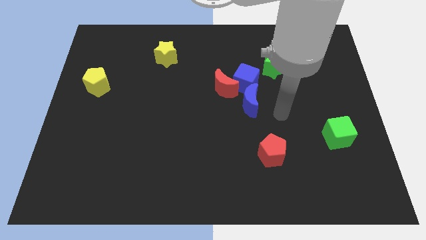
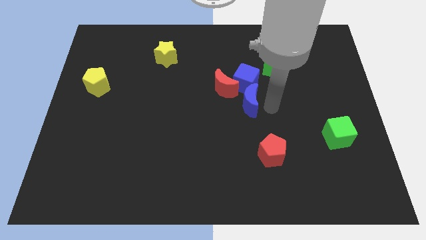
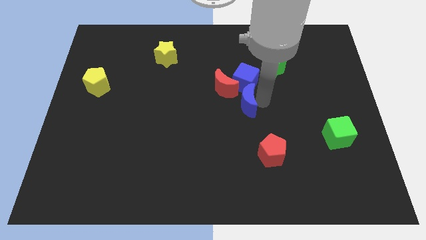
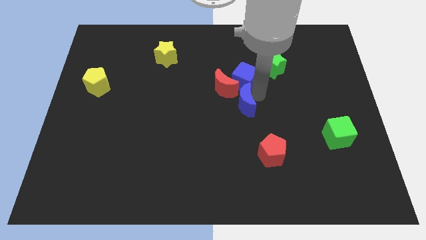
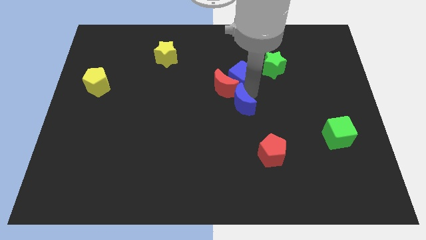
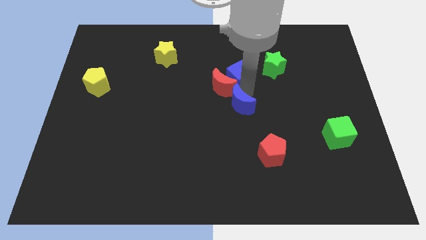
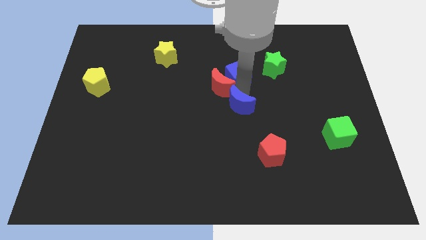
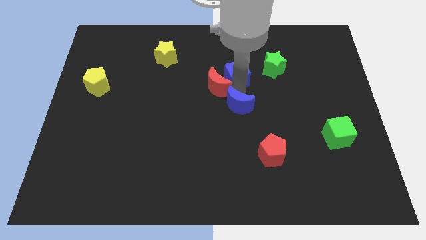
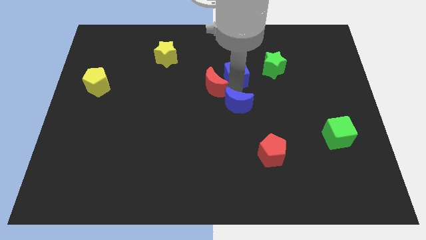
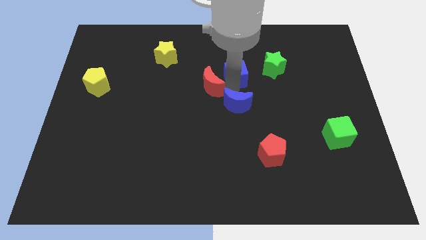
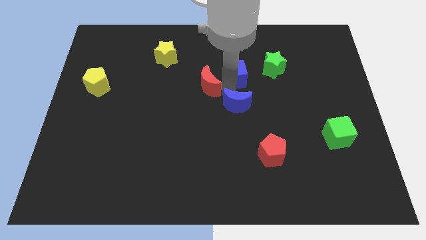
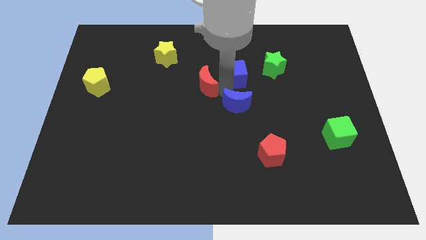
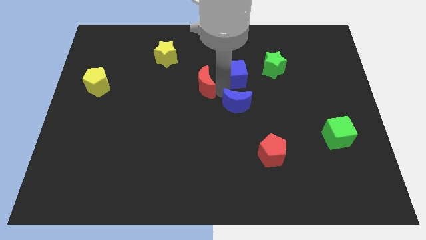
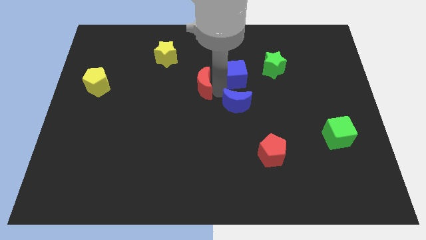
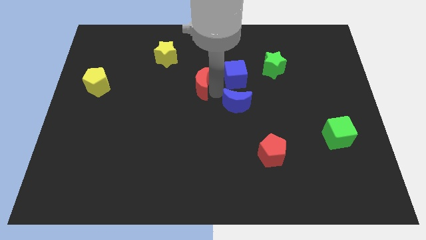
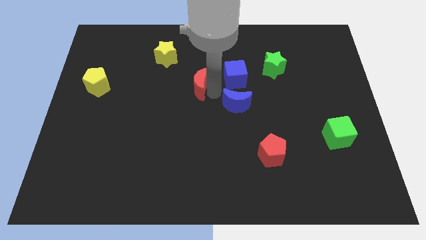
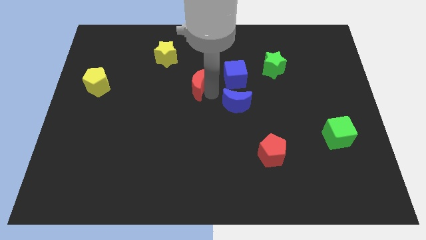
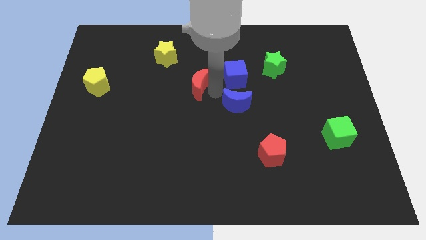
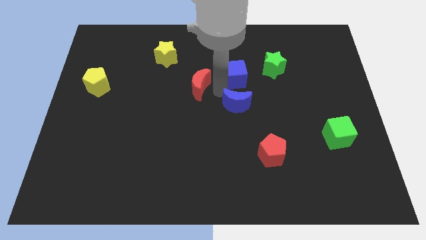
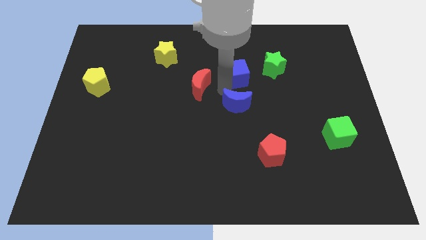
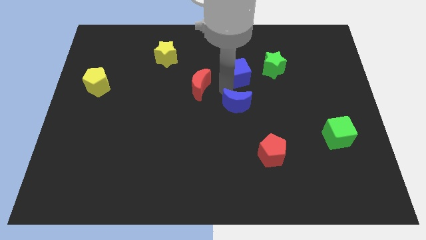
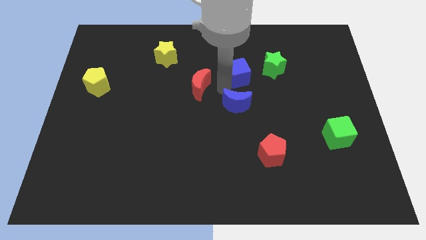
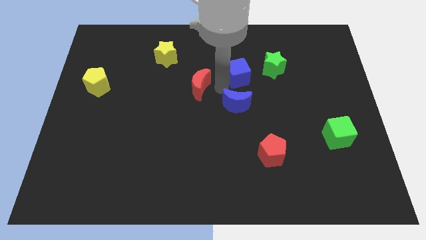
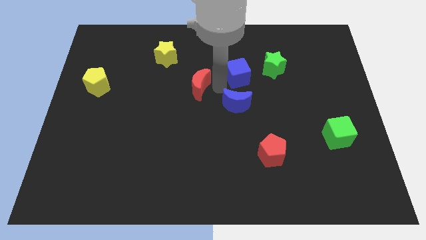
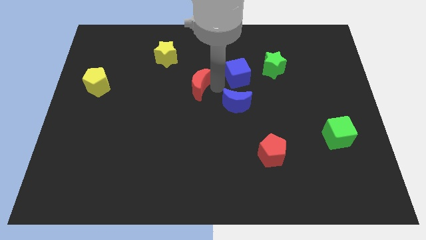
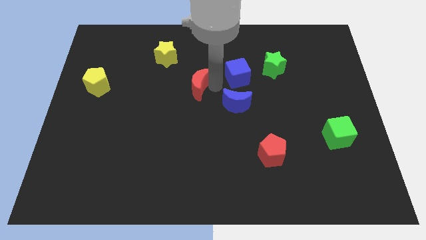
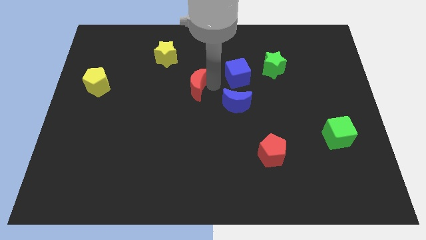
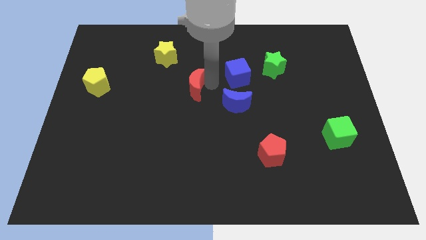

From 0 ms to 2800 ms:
pull the red moon apart from the blue cube and blue moon

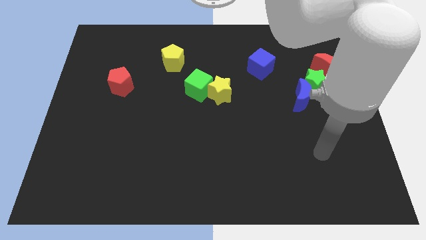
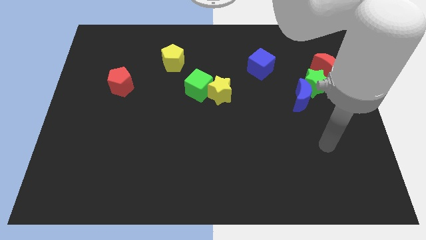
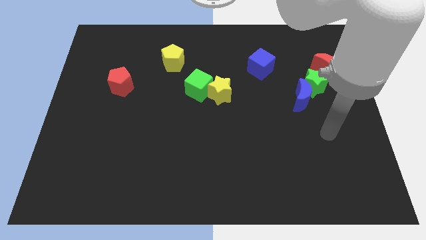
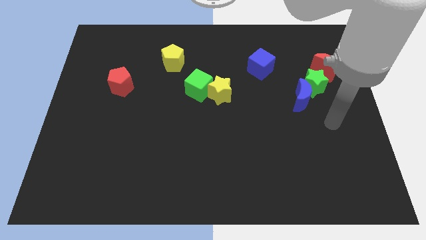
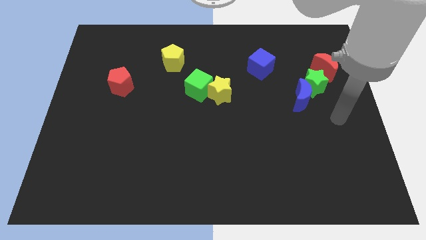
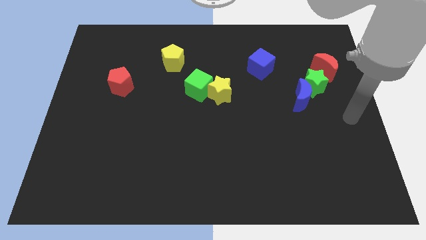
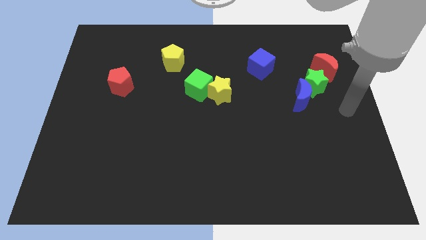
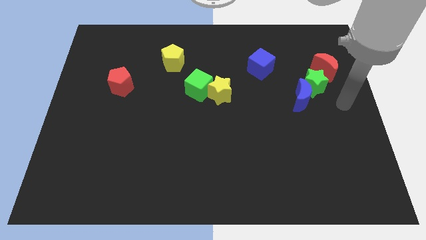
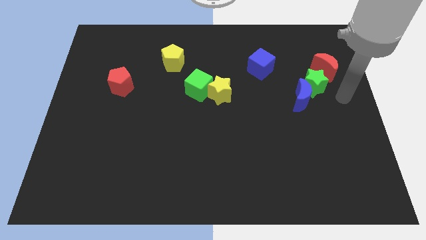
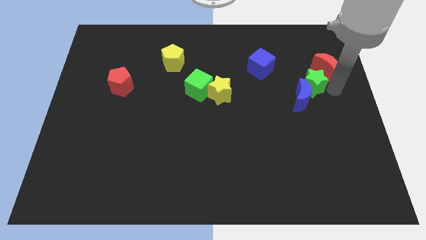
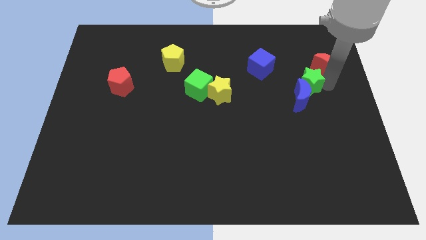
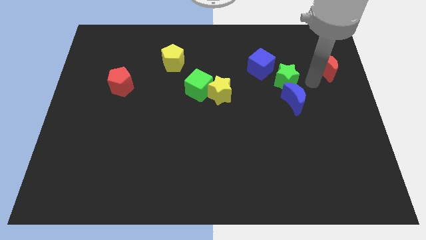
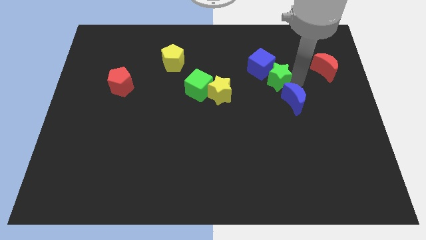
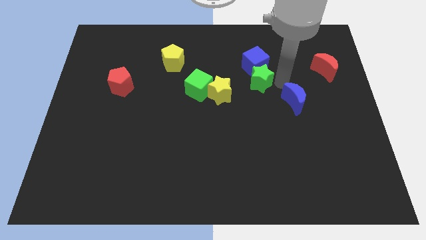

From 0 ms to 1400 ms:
move the blue moon away from the green star

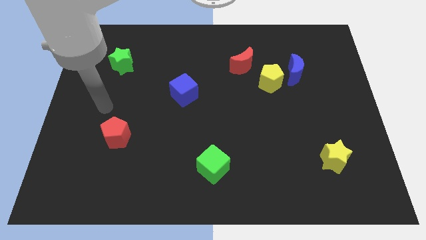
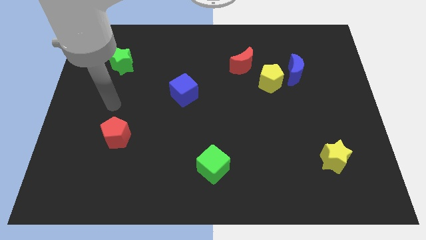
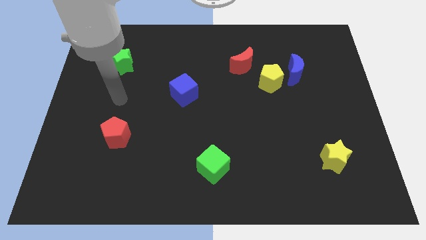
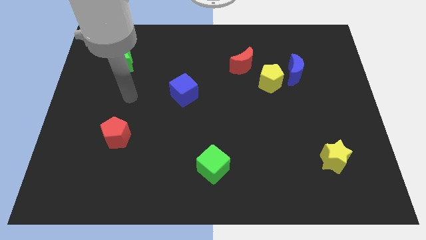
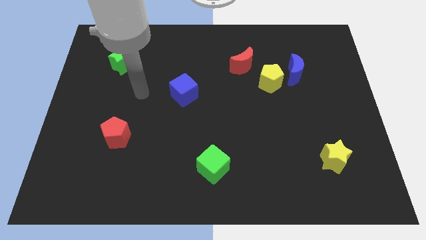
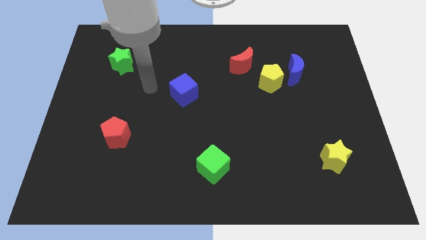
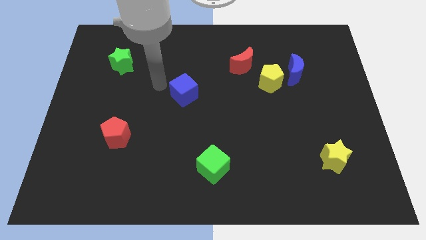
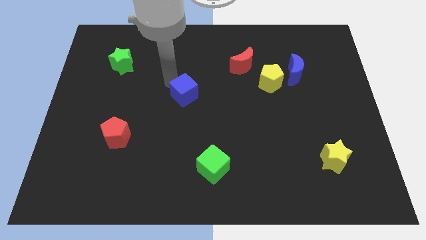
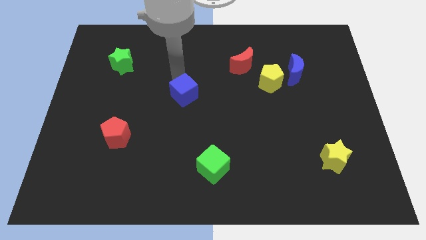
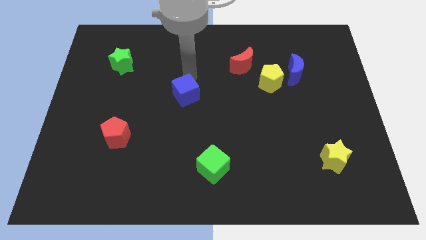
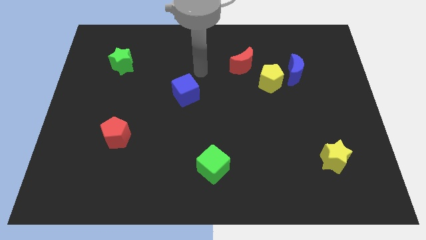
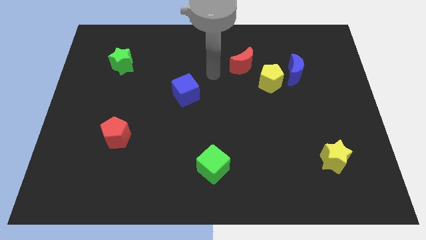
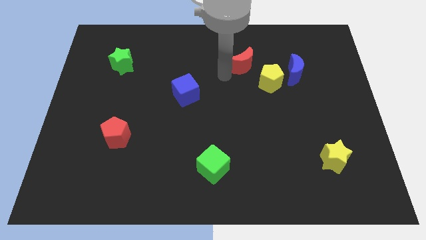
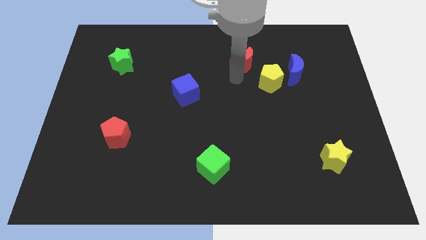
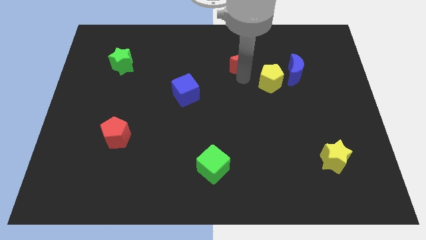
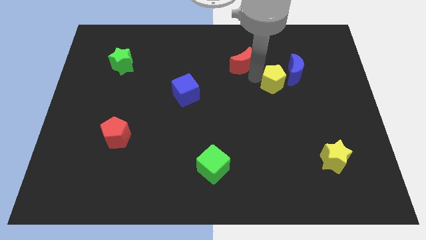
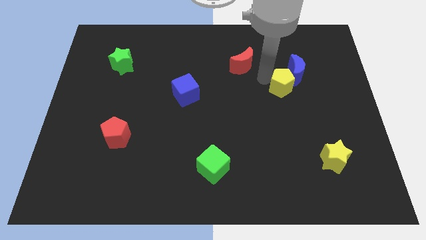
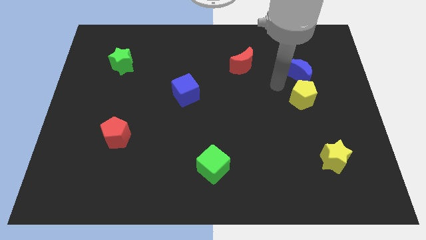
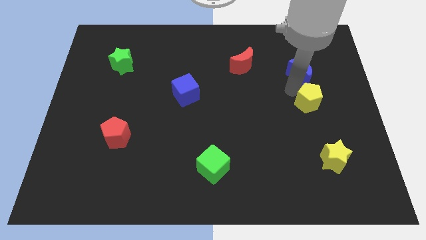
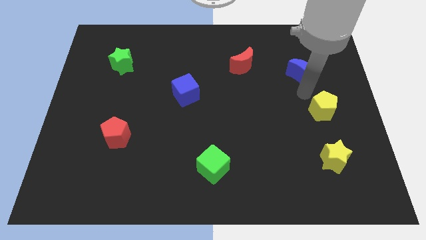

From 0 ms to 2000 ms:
separate the blue moon from the yellow pentagon

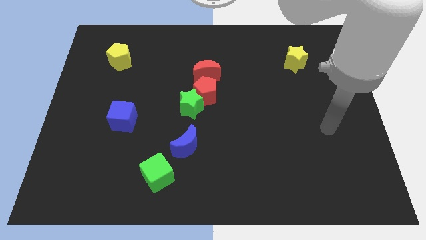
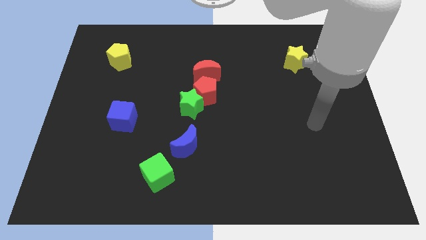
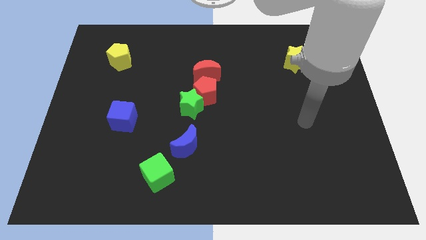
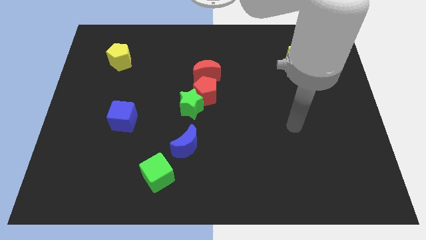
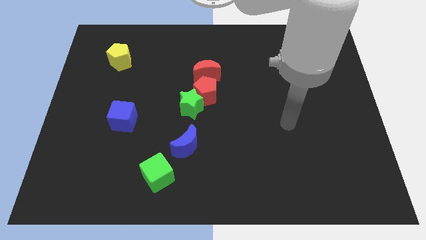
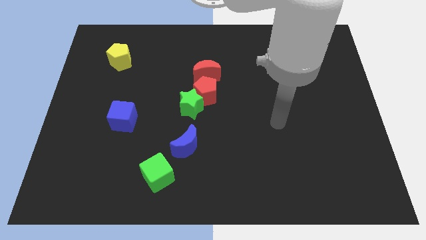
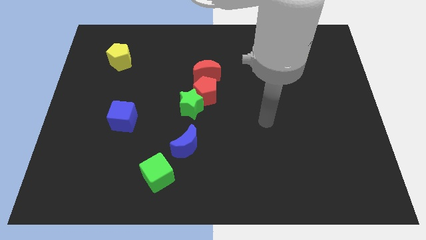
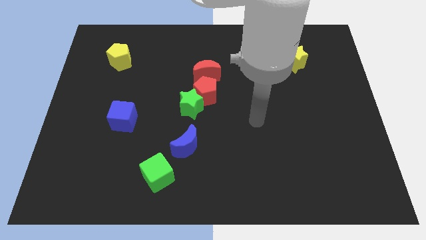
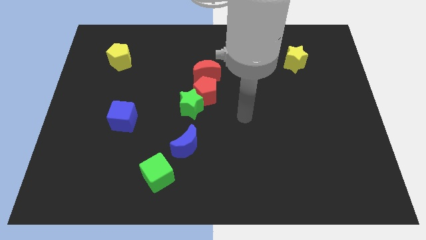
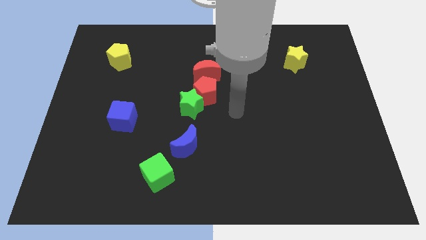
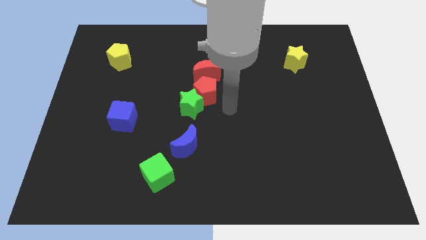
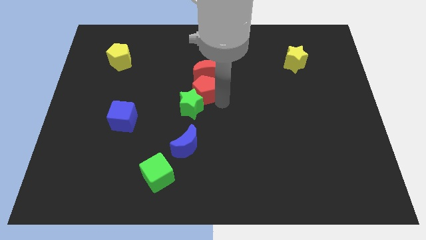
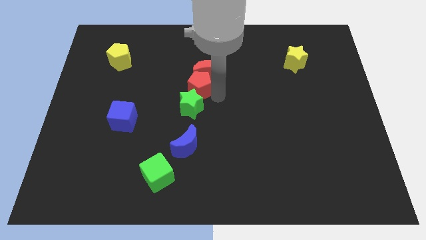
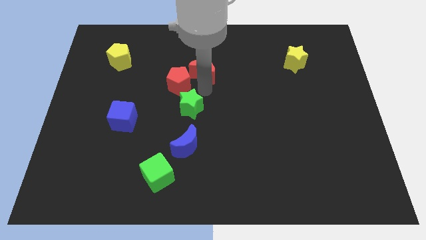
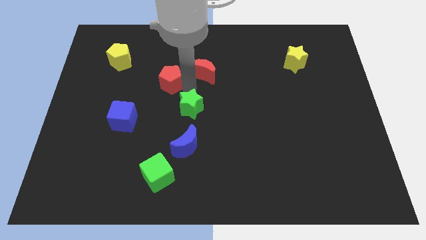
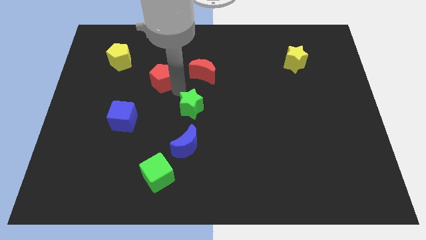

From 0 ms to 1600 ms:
separate the green star from the red pentagon

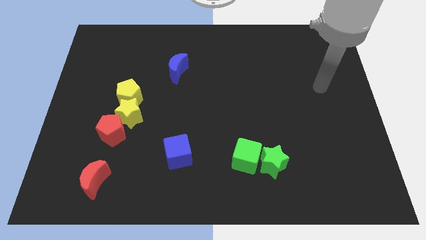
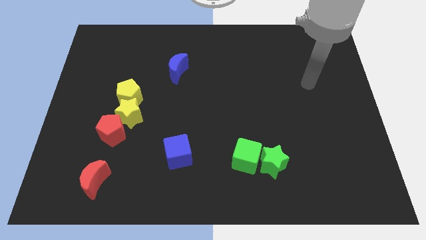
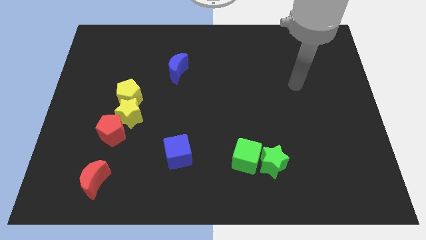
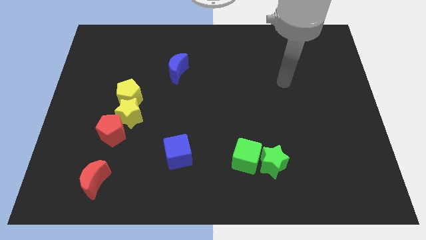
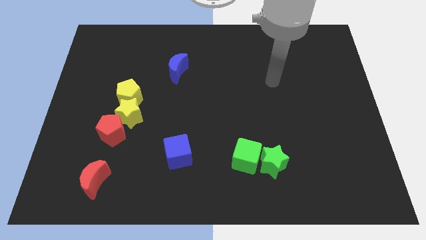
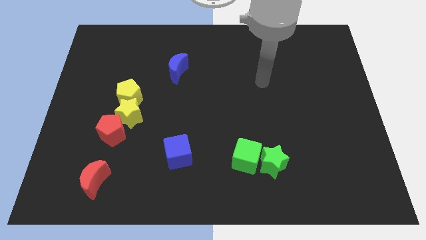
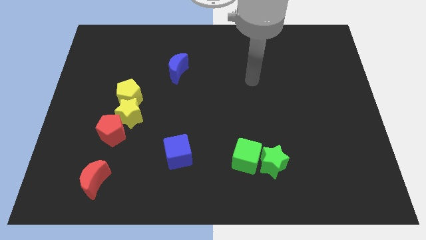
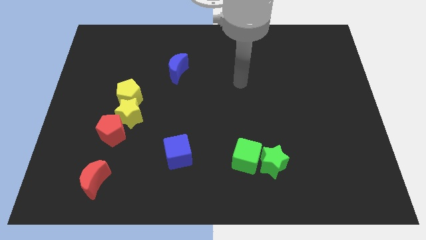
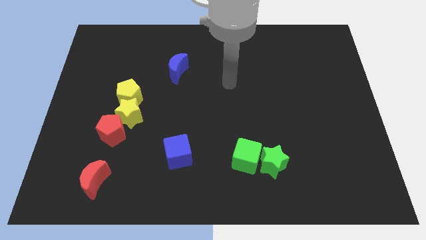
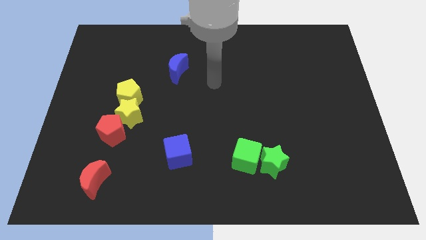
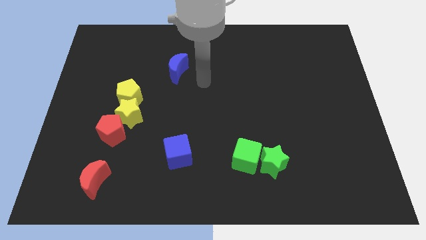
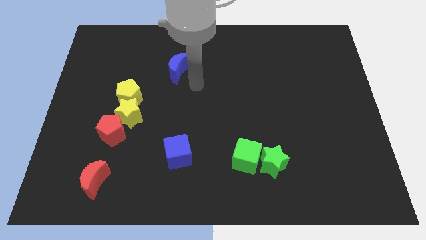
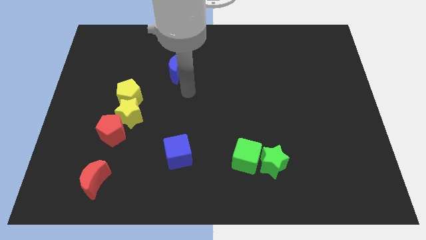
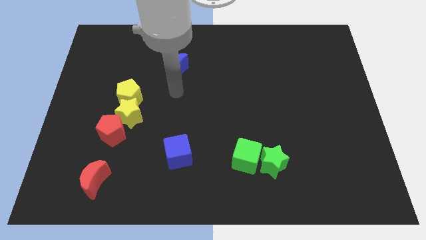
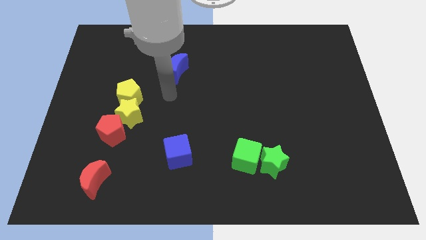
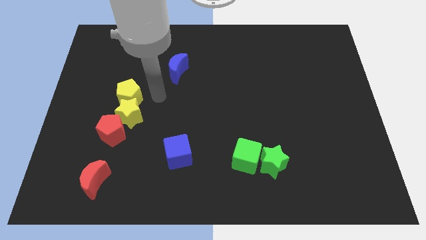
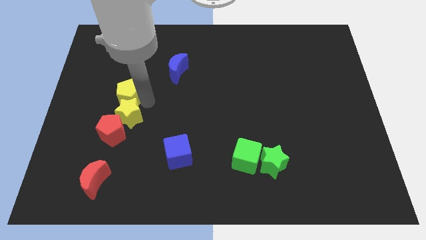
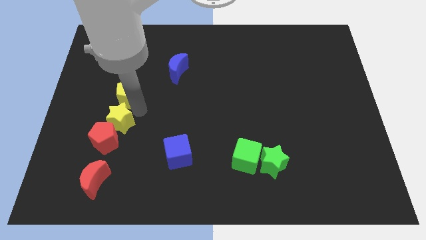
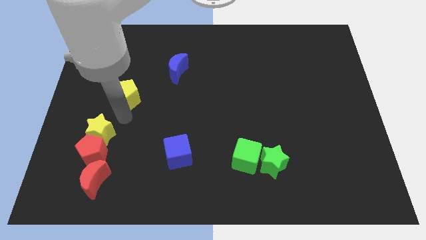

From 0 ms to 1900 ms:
move the yellow pentagon away from the yellow star
